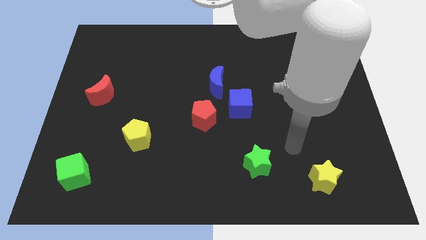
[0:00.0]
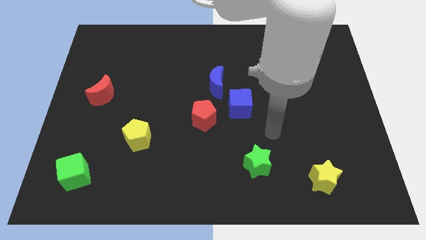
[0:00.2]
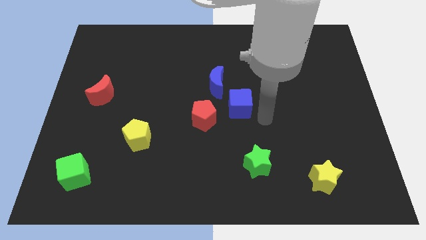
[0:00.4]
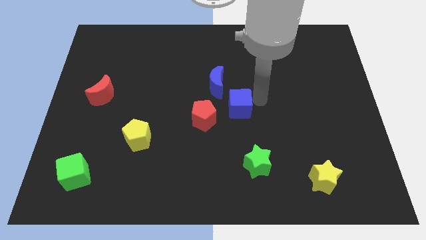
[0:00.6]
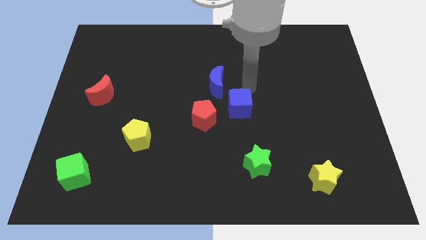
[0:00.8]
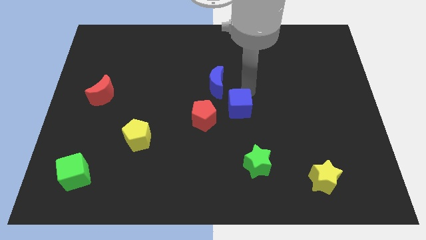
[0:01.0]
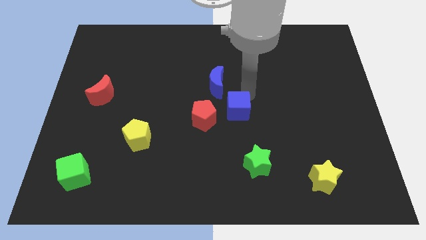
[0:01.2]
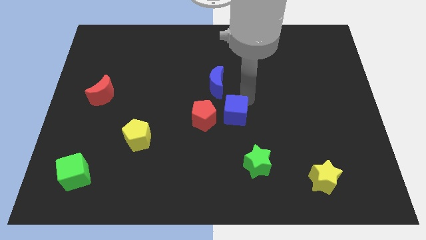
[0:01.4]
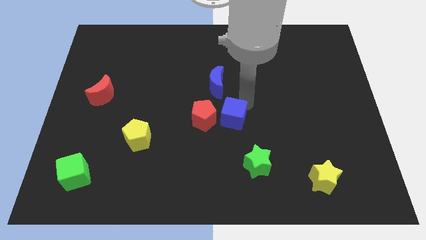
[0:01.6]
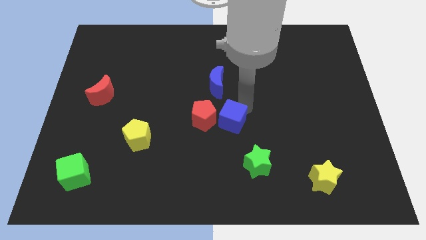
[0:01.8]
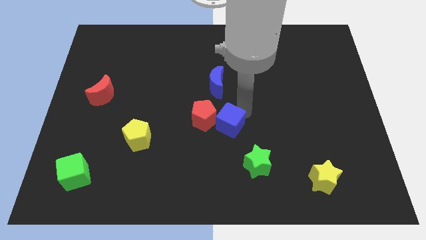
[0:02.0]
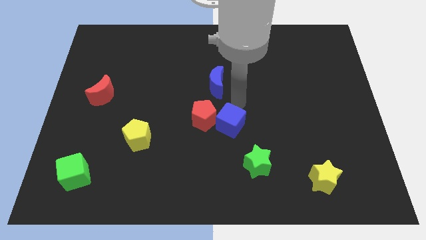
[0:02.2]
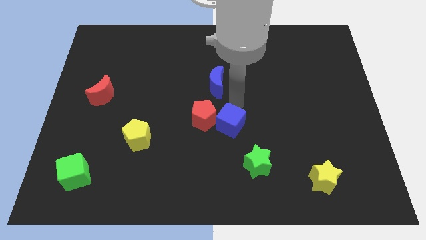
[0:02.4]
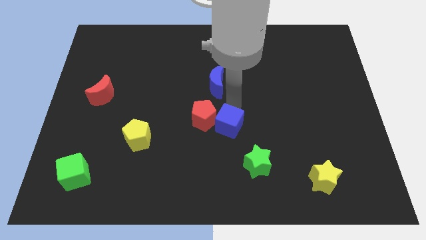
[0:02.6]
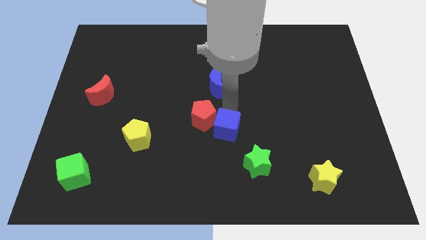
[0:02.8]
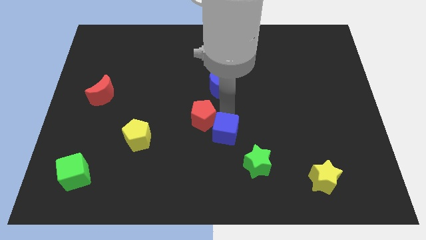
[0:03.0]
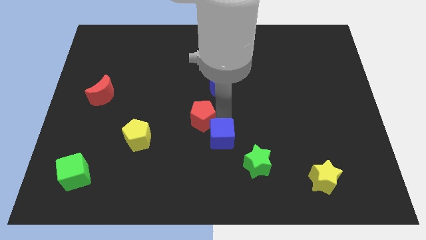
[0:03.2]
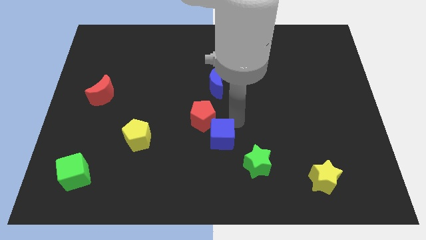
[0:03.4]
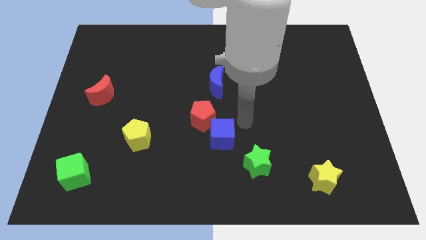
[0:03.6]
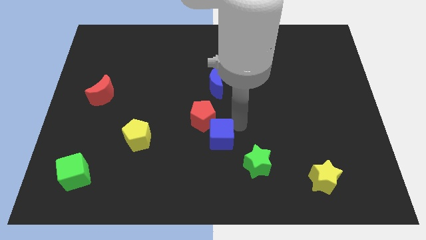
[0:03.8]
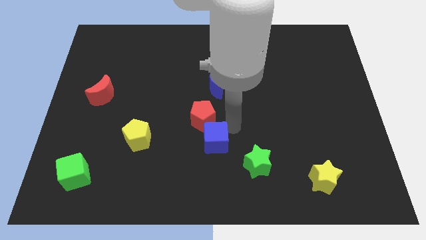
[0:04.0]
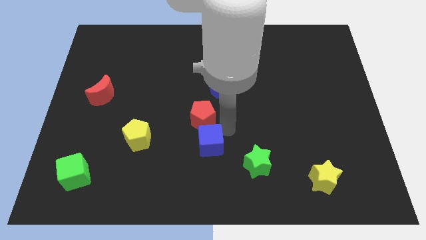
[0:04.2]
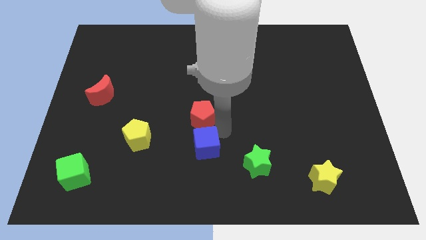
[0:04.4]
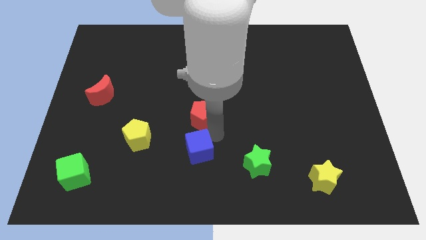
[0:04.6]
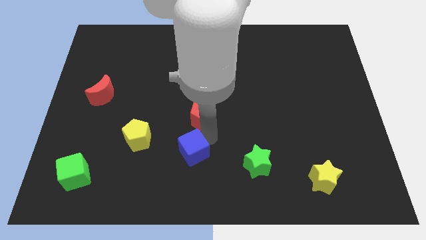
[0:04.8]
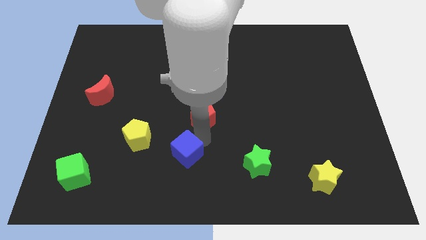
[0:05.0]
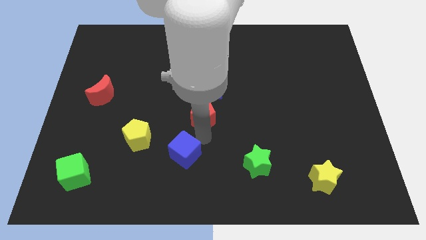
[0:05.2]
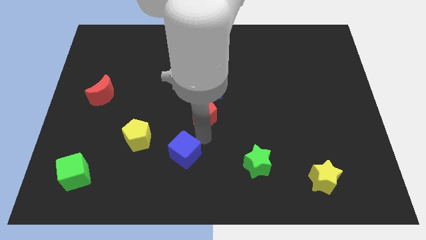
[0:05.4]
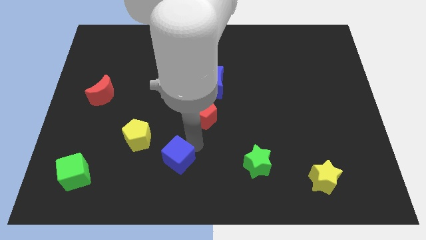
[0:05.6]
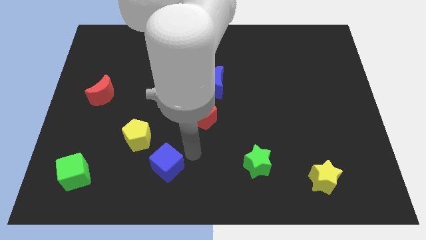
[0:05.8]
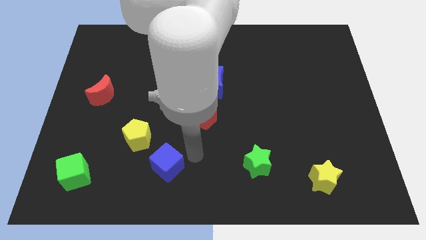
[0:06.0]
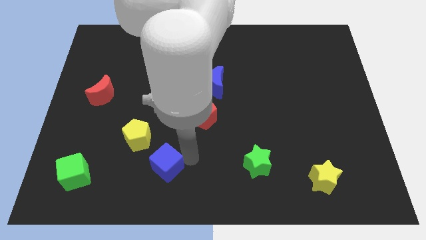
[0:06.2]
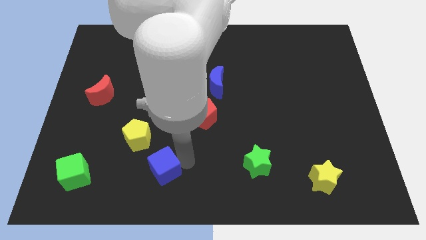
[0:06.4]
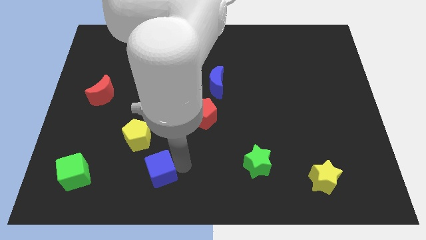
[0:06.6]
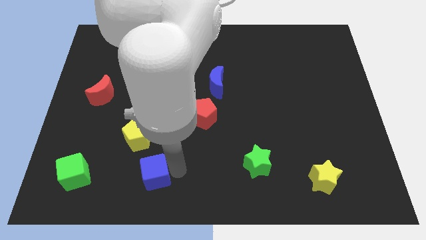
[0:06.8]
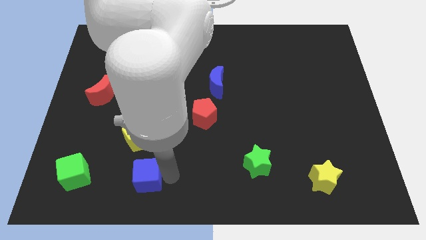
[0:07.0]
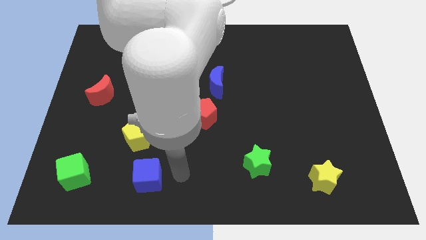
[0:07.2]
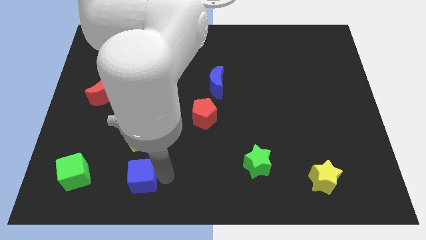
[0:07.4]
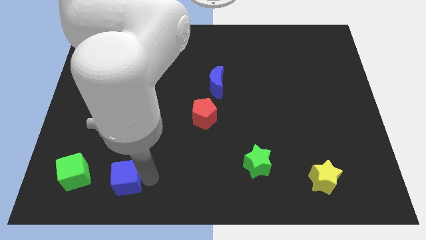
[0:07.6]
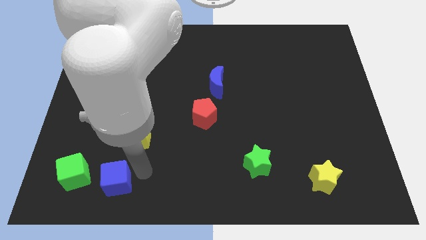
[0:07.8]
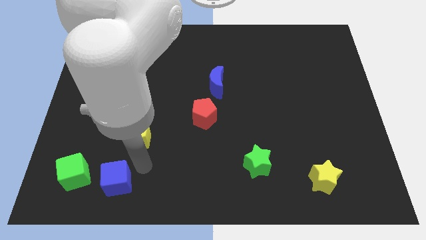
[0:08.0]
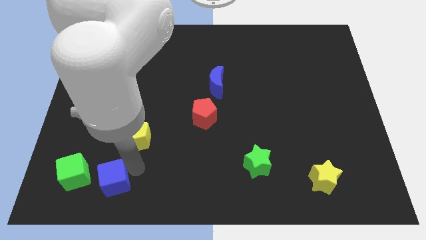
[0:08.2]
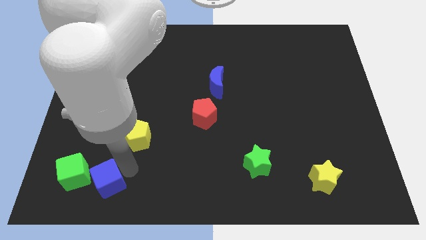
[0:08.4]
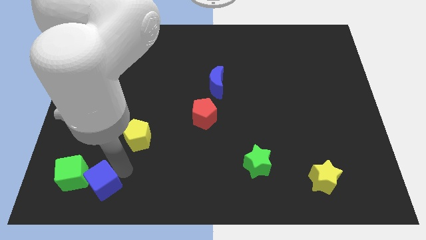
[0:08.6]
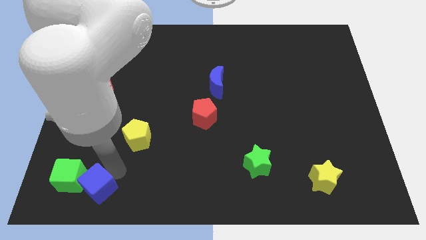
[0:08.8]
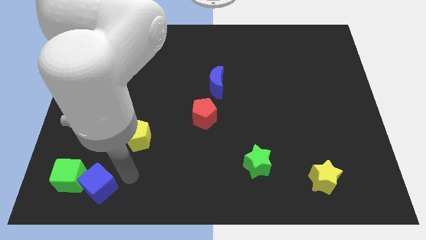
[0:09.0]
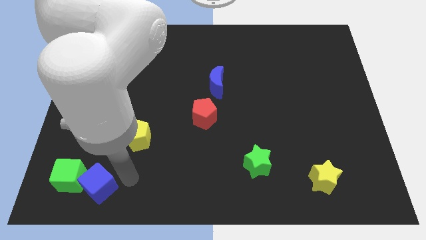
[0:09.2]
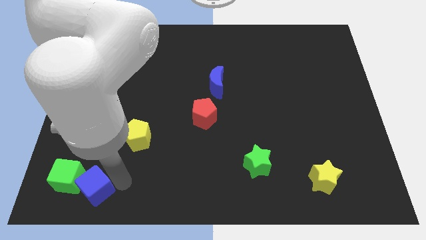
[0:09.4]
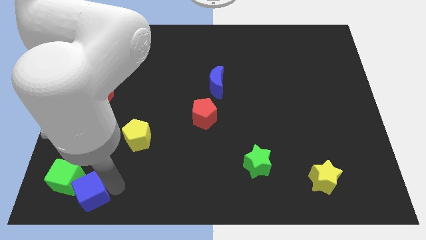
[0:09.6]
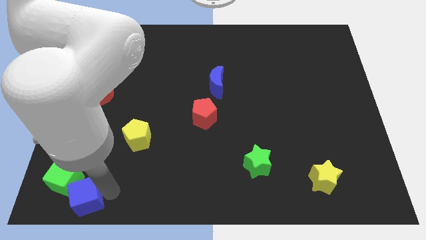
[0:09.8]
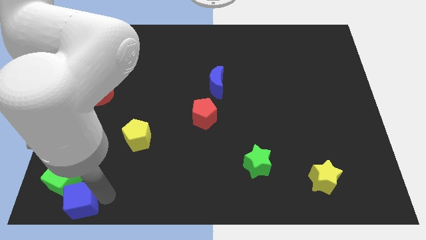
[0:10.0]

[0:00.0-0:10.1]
push the blue cube to the bottom left of the board
